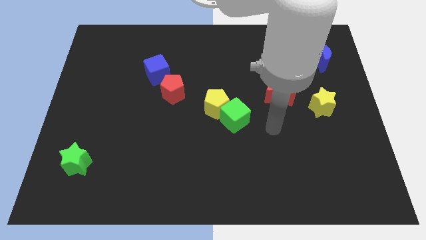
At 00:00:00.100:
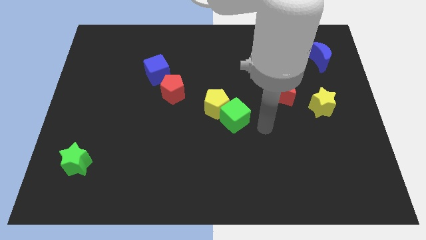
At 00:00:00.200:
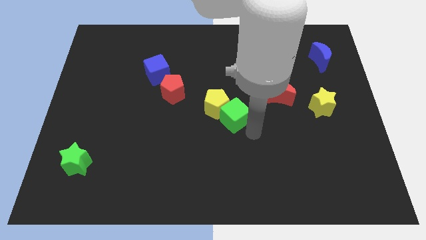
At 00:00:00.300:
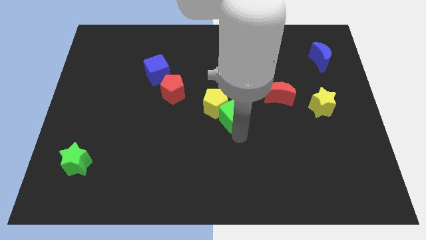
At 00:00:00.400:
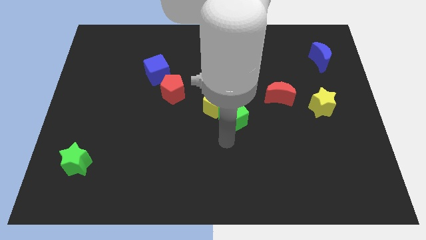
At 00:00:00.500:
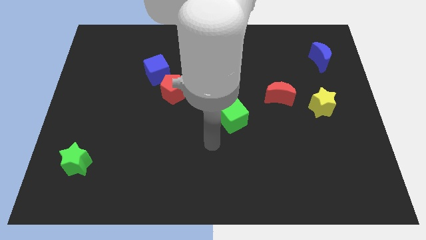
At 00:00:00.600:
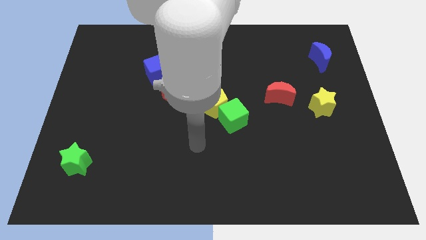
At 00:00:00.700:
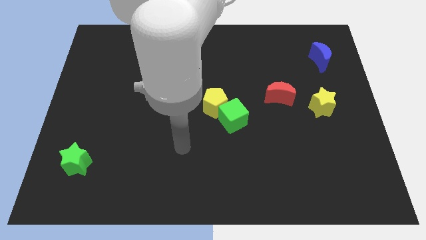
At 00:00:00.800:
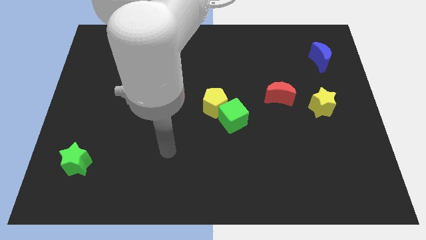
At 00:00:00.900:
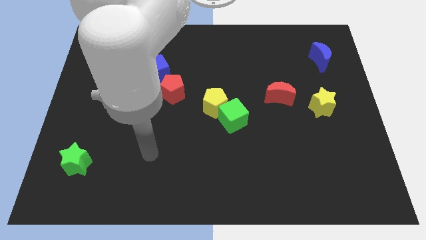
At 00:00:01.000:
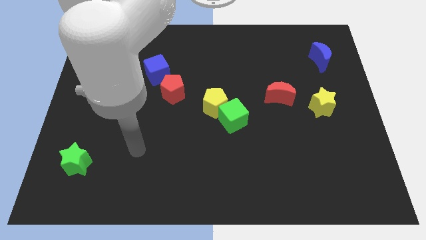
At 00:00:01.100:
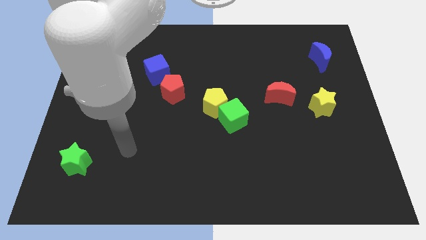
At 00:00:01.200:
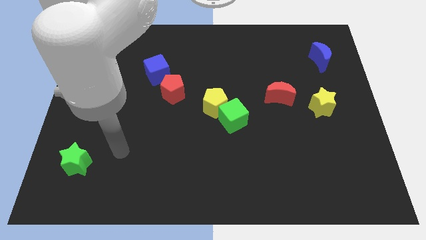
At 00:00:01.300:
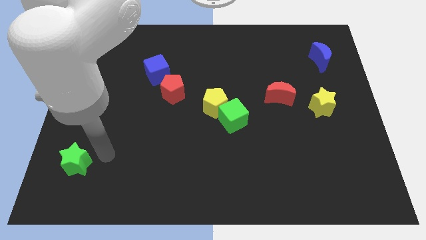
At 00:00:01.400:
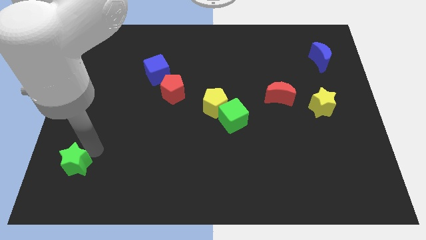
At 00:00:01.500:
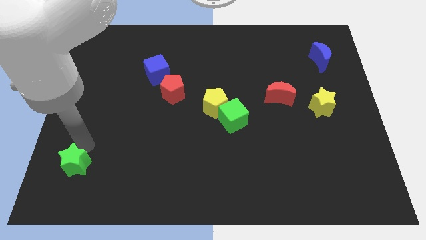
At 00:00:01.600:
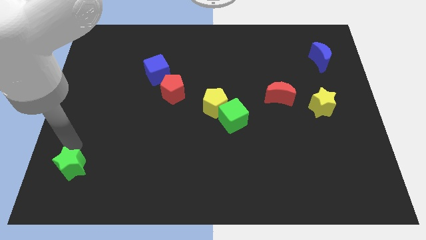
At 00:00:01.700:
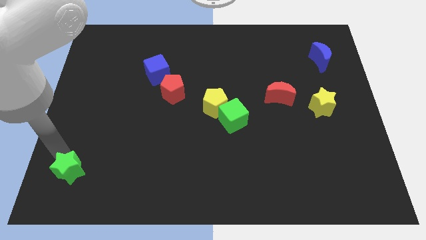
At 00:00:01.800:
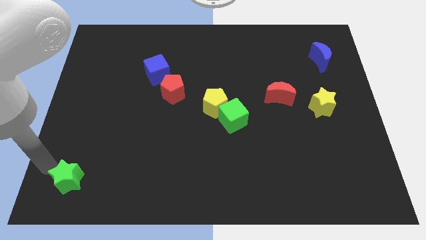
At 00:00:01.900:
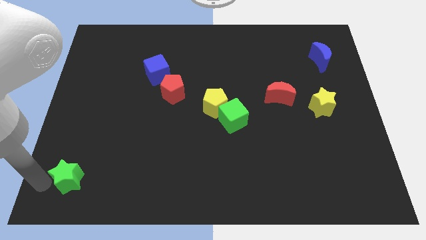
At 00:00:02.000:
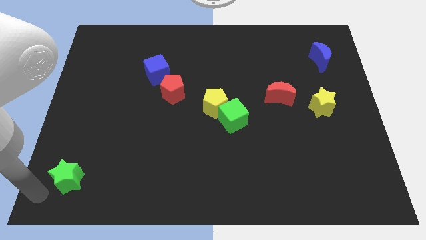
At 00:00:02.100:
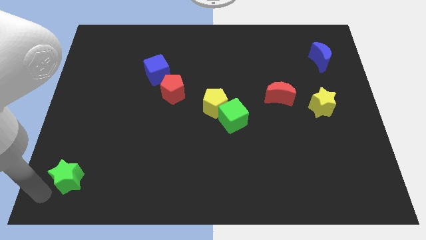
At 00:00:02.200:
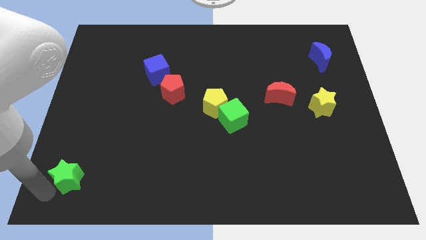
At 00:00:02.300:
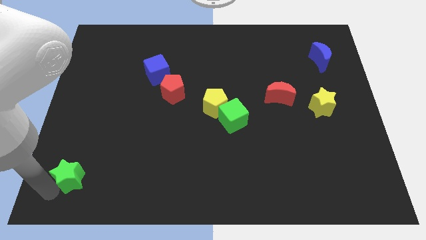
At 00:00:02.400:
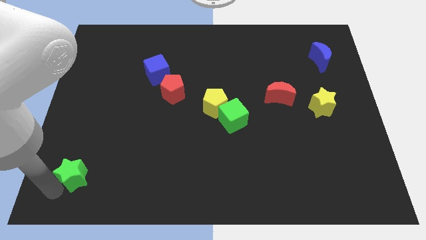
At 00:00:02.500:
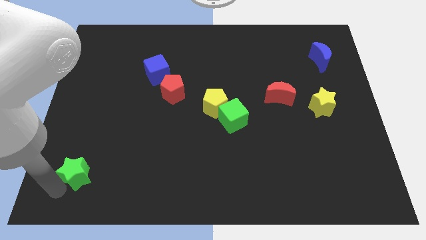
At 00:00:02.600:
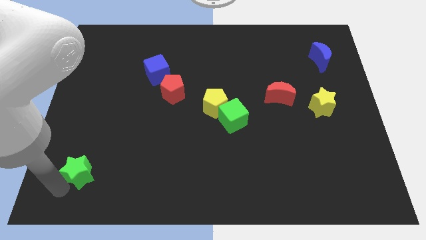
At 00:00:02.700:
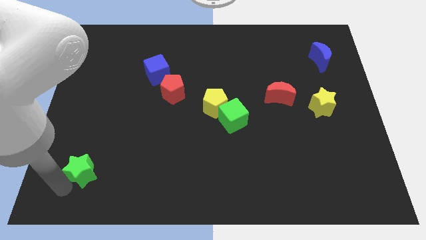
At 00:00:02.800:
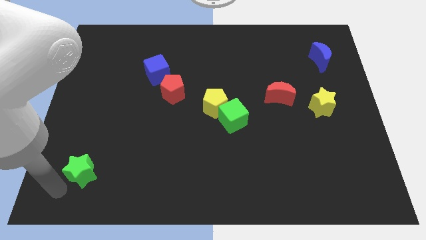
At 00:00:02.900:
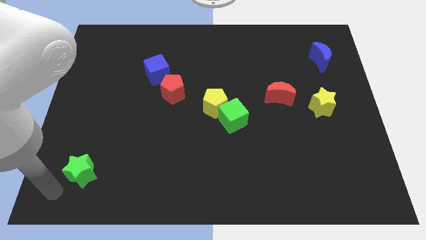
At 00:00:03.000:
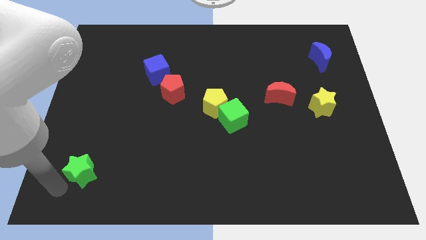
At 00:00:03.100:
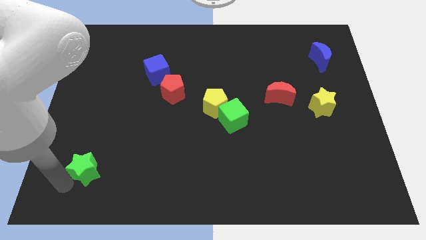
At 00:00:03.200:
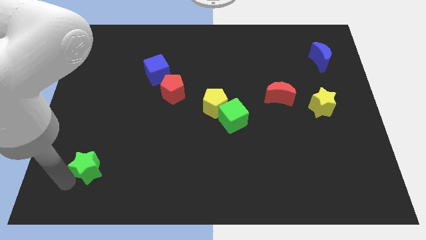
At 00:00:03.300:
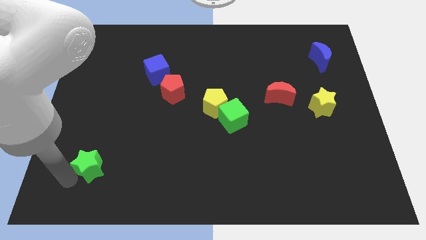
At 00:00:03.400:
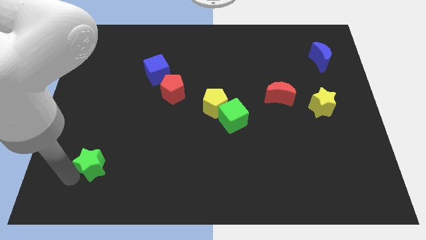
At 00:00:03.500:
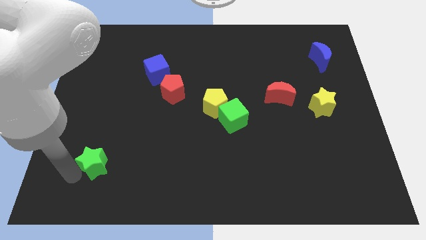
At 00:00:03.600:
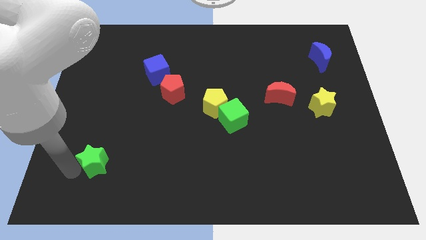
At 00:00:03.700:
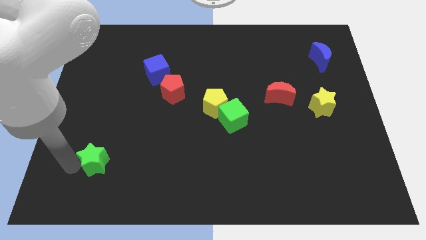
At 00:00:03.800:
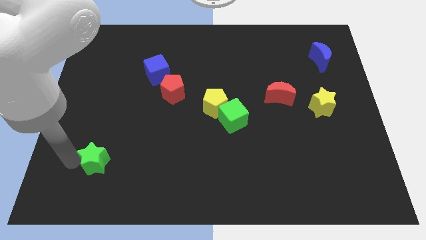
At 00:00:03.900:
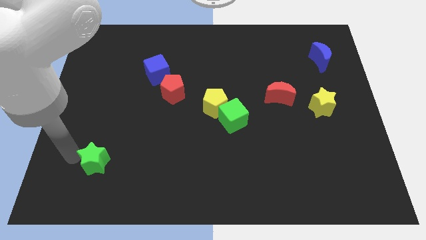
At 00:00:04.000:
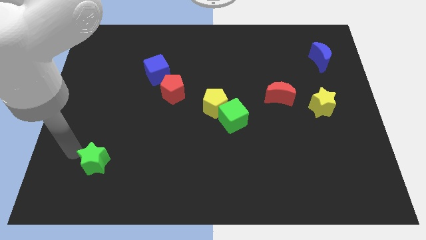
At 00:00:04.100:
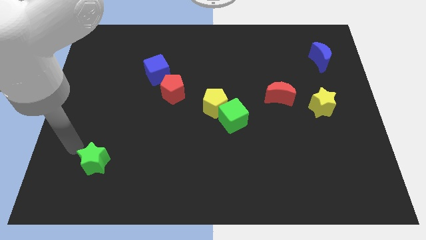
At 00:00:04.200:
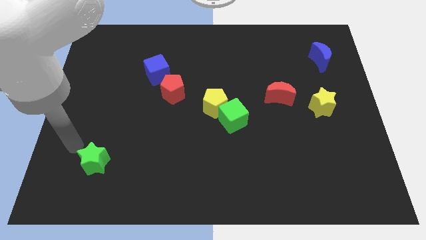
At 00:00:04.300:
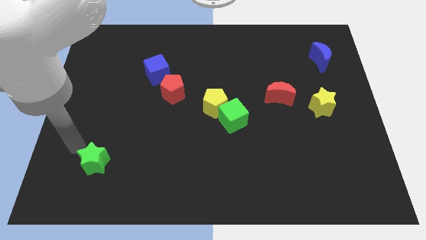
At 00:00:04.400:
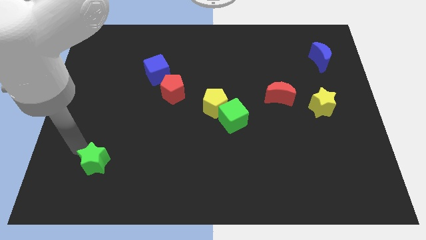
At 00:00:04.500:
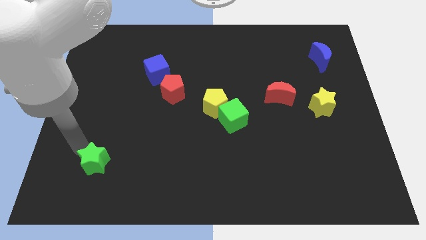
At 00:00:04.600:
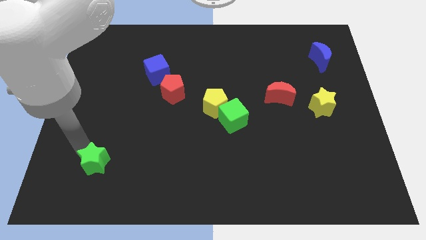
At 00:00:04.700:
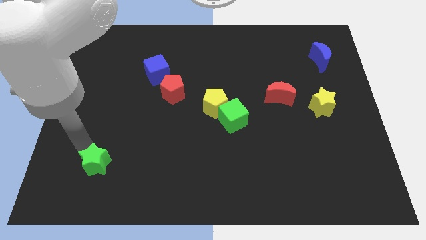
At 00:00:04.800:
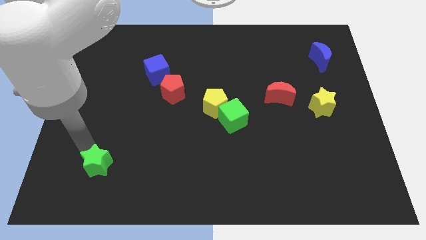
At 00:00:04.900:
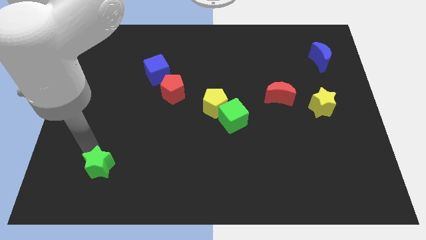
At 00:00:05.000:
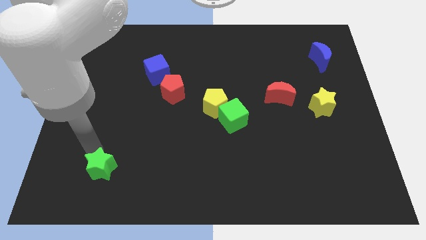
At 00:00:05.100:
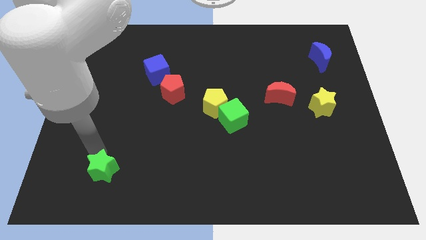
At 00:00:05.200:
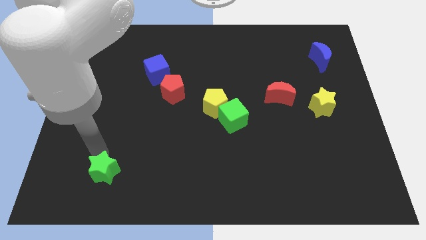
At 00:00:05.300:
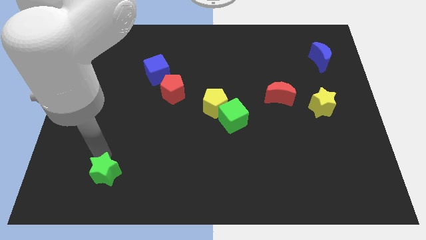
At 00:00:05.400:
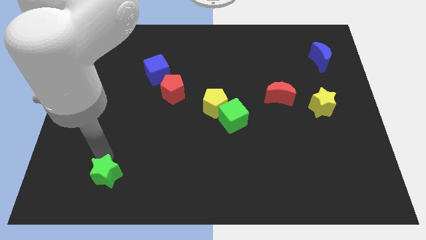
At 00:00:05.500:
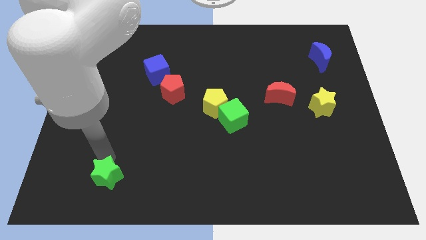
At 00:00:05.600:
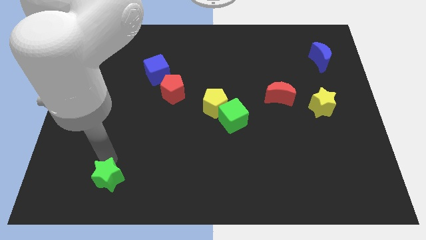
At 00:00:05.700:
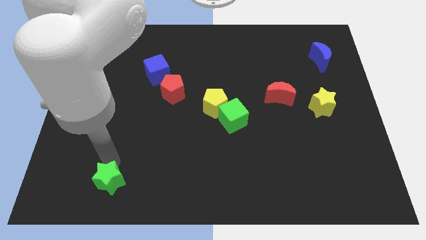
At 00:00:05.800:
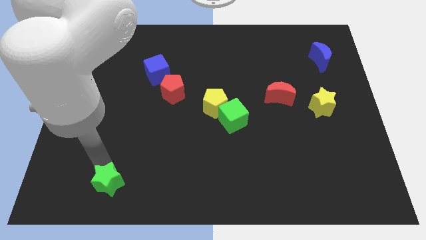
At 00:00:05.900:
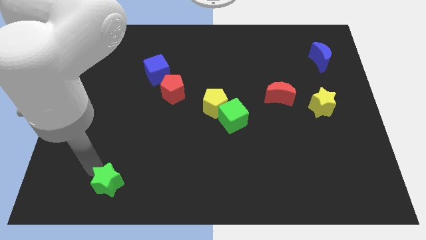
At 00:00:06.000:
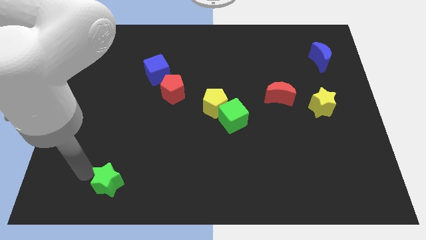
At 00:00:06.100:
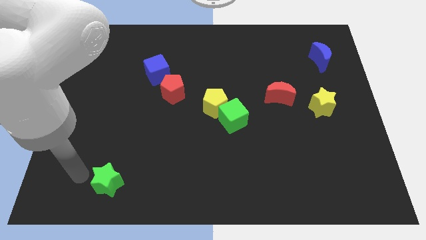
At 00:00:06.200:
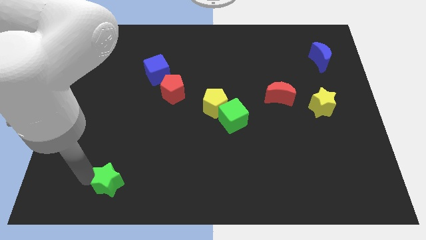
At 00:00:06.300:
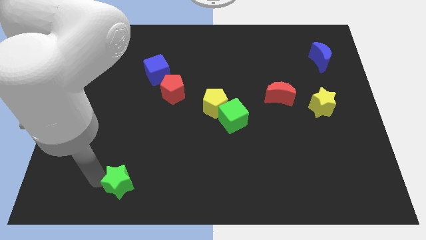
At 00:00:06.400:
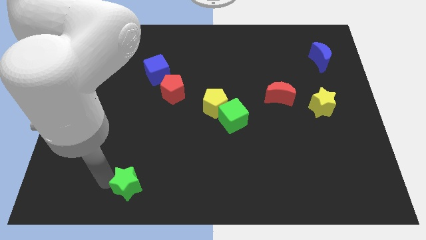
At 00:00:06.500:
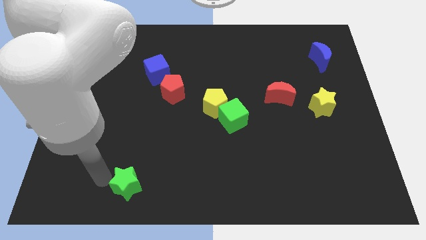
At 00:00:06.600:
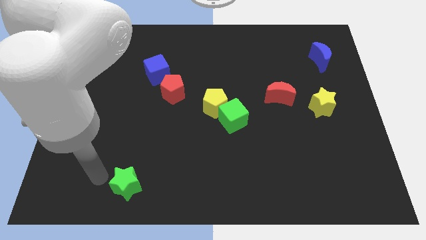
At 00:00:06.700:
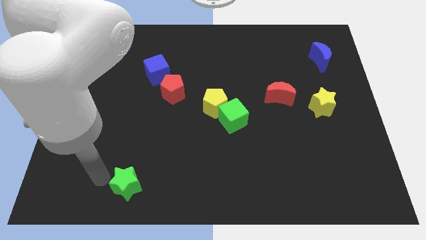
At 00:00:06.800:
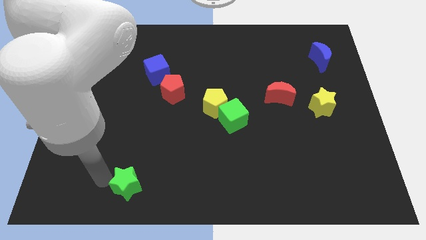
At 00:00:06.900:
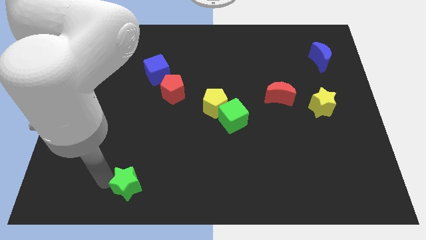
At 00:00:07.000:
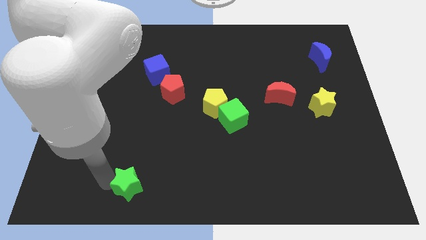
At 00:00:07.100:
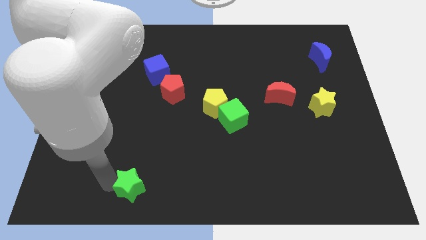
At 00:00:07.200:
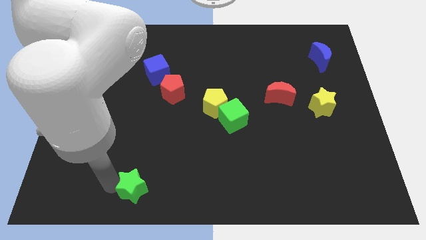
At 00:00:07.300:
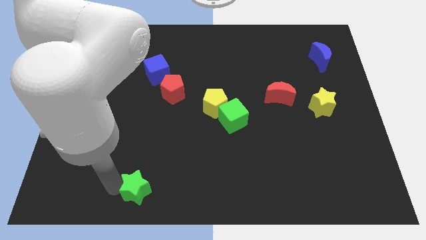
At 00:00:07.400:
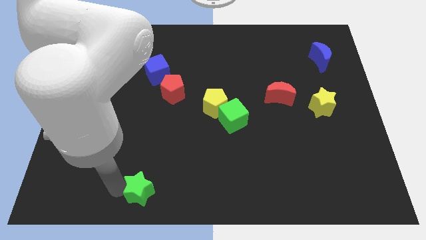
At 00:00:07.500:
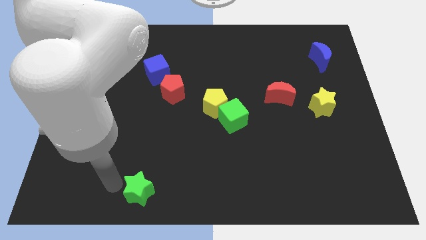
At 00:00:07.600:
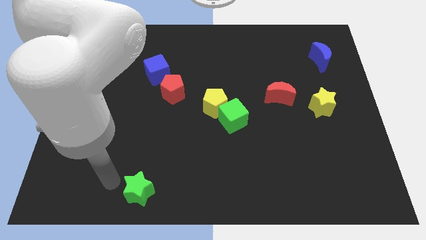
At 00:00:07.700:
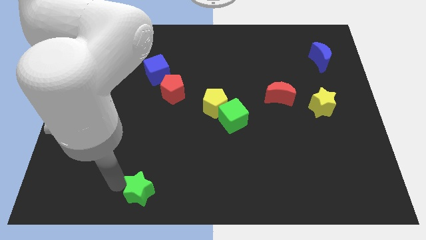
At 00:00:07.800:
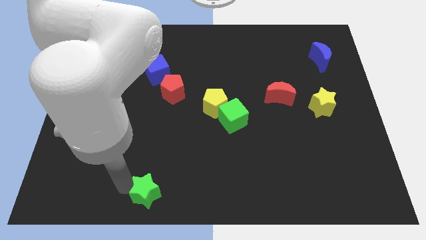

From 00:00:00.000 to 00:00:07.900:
move the green star to the bottom side
